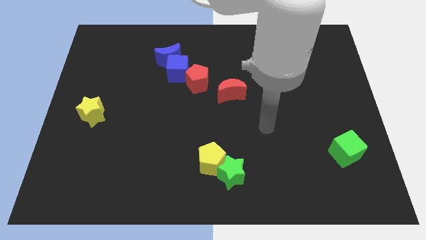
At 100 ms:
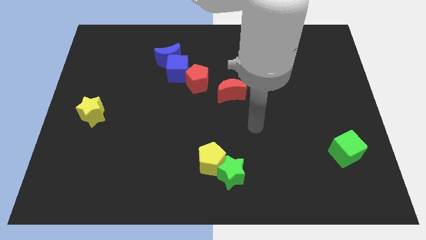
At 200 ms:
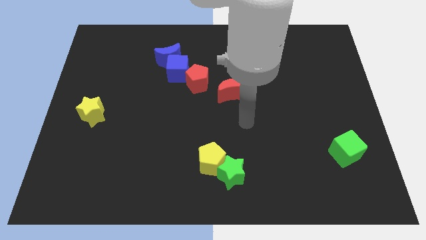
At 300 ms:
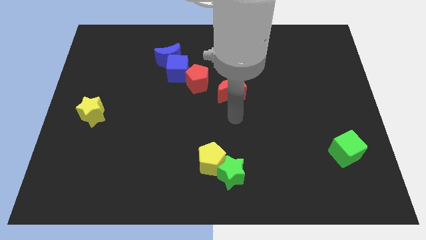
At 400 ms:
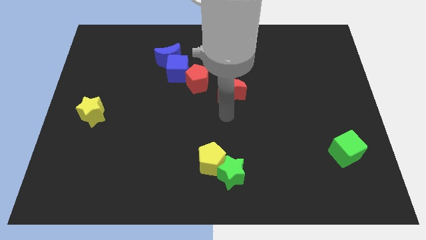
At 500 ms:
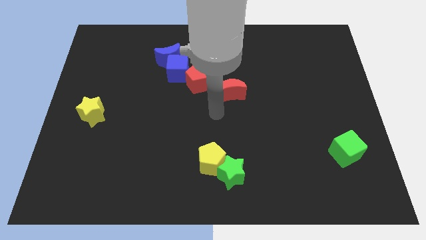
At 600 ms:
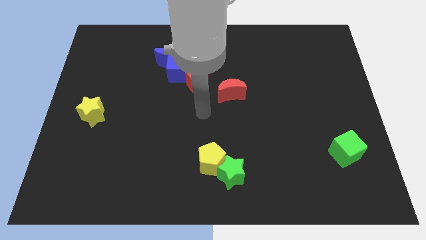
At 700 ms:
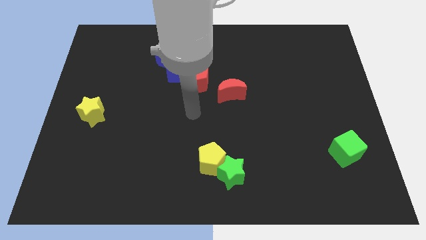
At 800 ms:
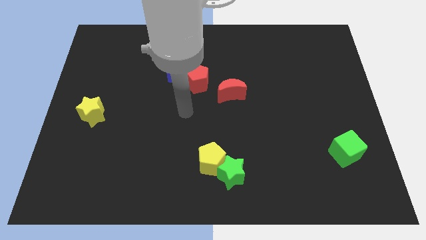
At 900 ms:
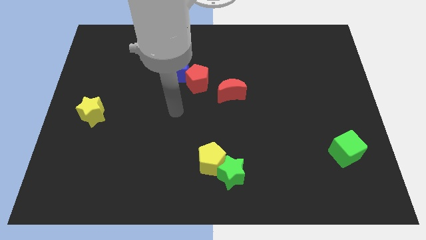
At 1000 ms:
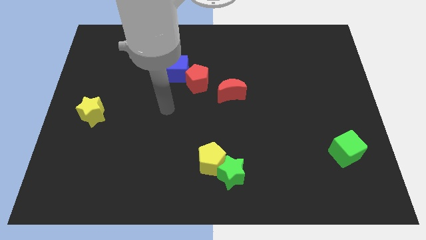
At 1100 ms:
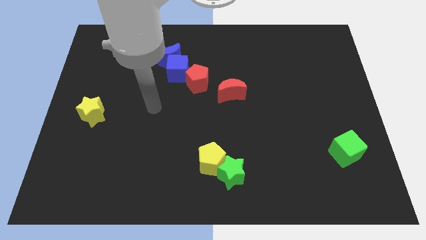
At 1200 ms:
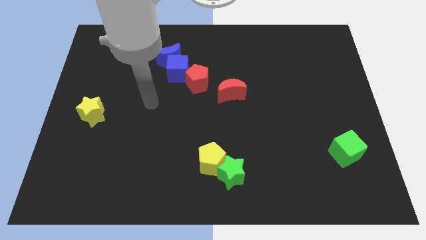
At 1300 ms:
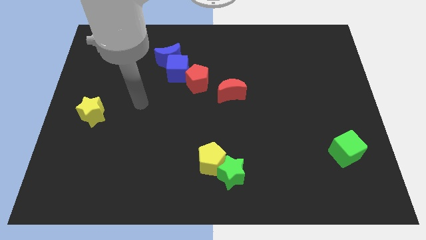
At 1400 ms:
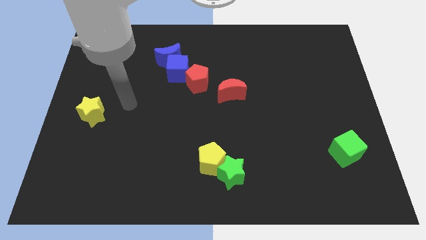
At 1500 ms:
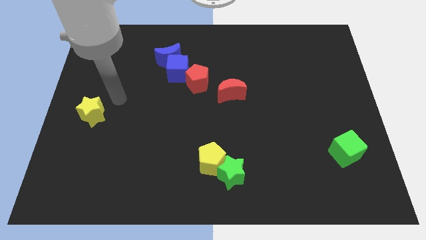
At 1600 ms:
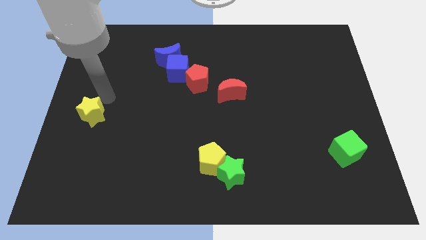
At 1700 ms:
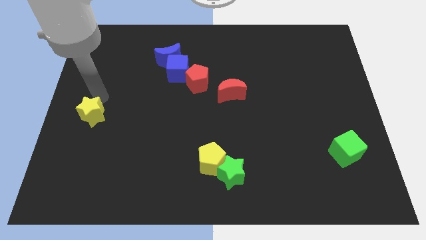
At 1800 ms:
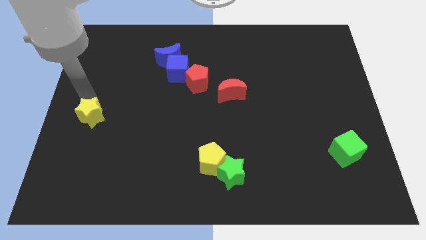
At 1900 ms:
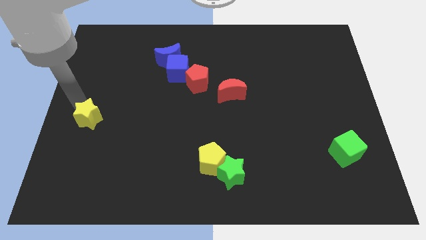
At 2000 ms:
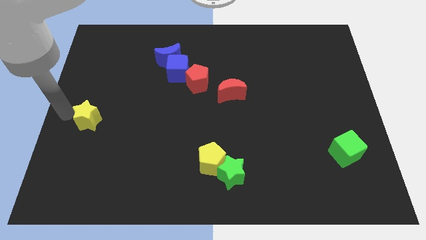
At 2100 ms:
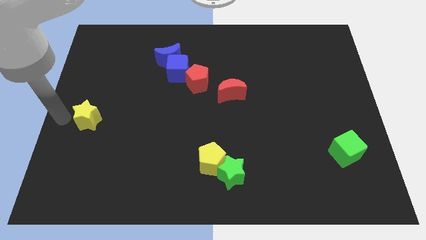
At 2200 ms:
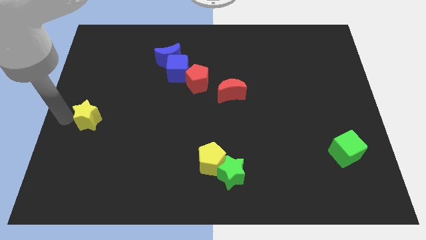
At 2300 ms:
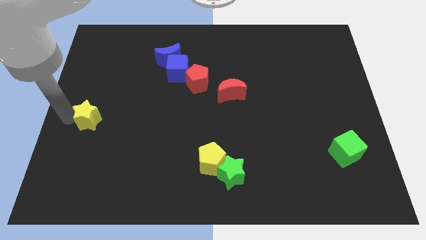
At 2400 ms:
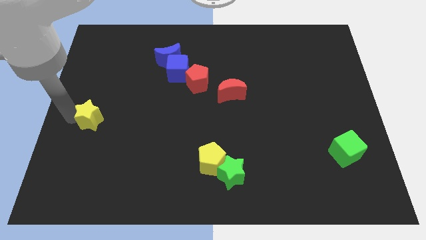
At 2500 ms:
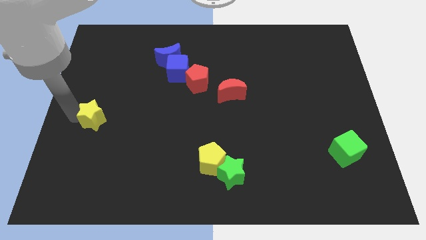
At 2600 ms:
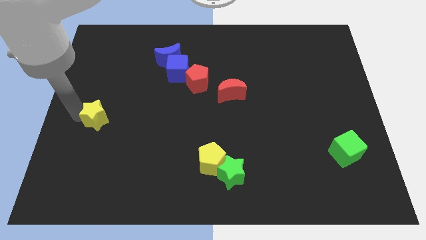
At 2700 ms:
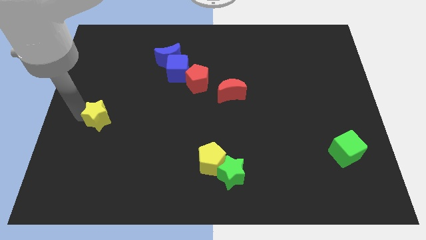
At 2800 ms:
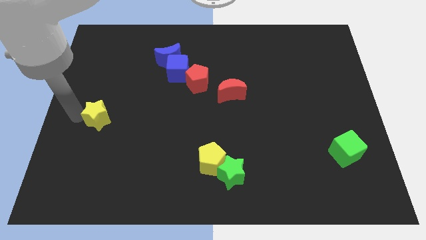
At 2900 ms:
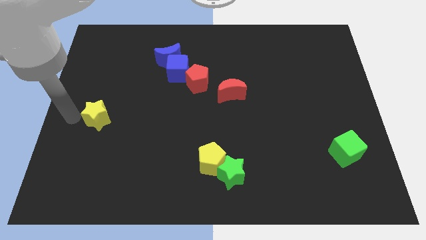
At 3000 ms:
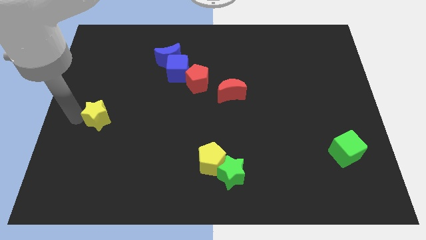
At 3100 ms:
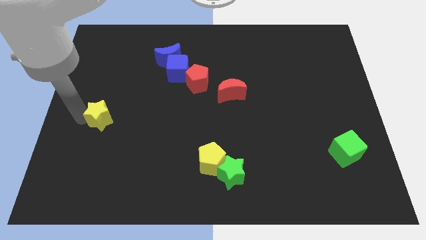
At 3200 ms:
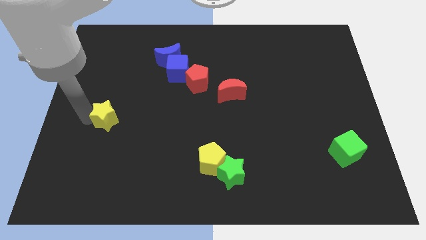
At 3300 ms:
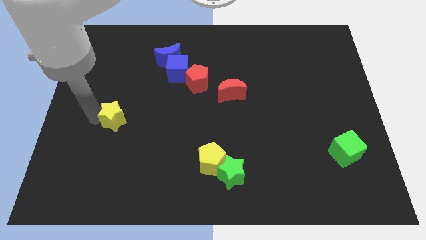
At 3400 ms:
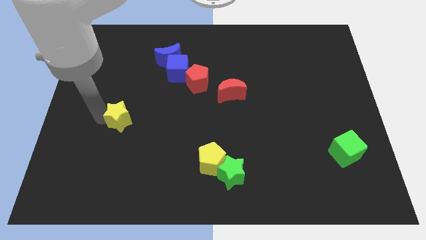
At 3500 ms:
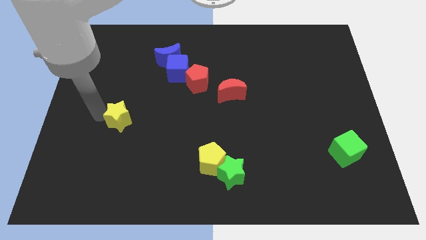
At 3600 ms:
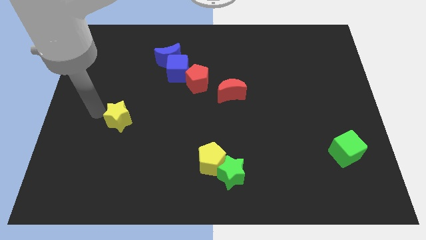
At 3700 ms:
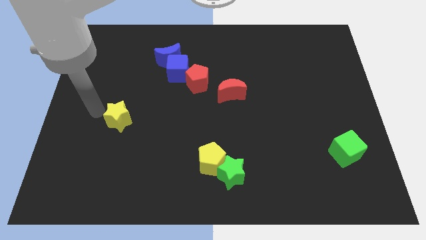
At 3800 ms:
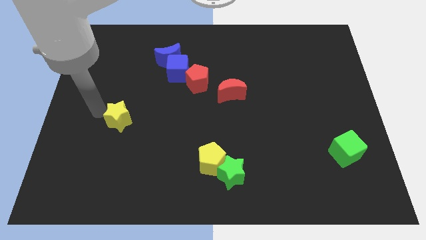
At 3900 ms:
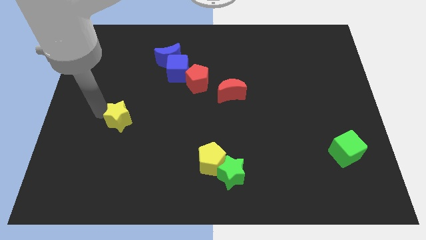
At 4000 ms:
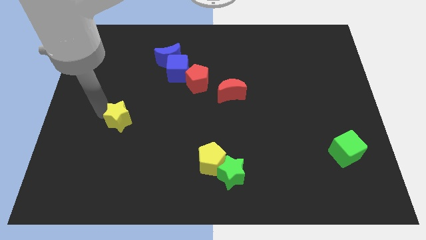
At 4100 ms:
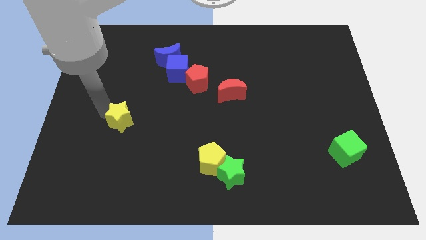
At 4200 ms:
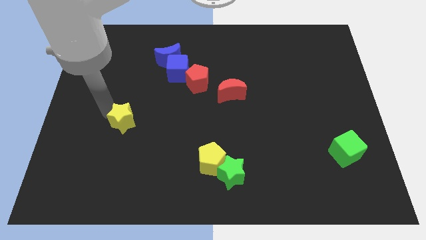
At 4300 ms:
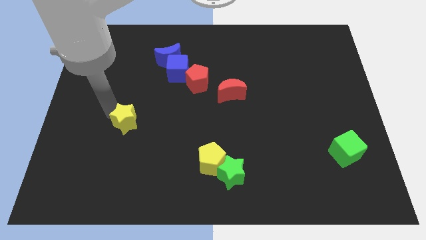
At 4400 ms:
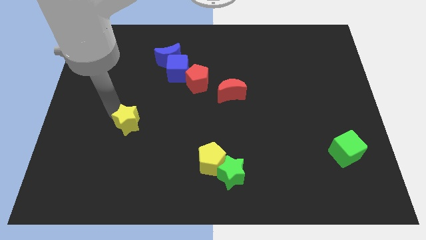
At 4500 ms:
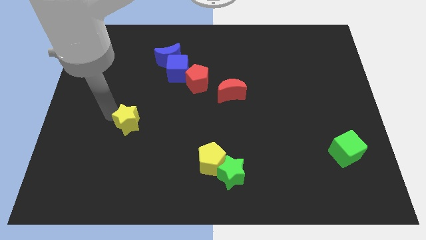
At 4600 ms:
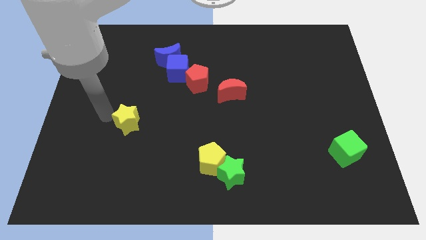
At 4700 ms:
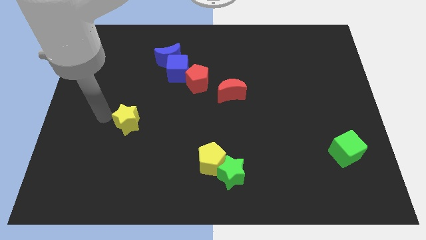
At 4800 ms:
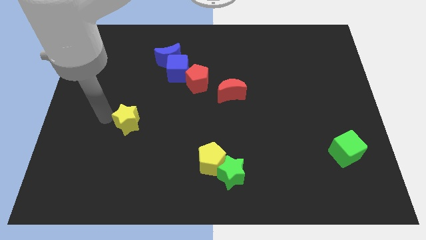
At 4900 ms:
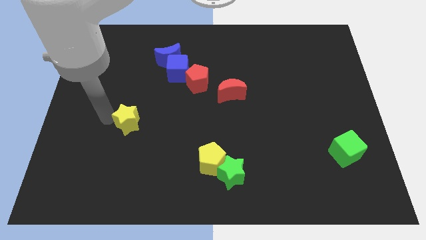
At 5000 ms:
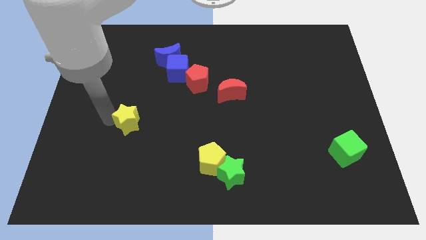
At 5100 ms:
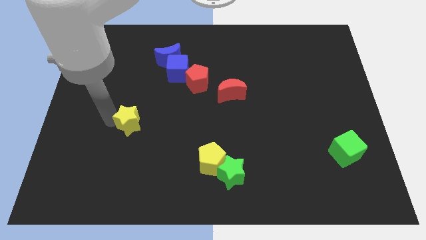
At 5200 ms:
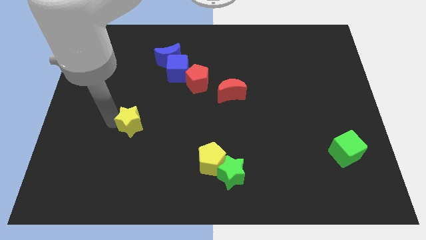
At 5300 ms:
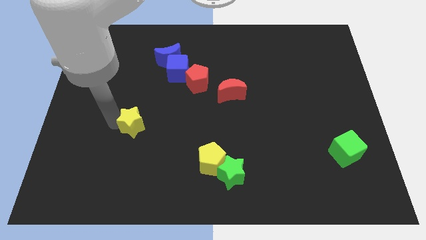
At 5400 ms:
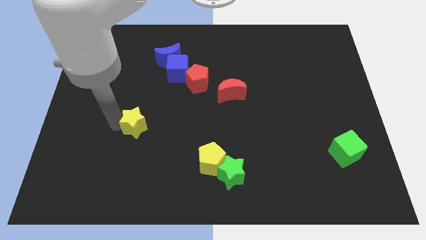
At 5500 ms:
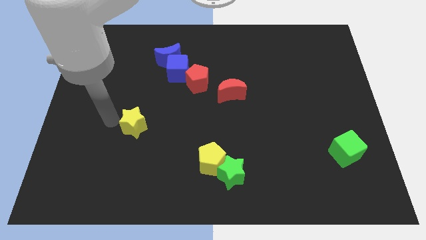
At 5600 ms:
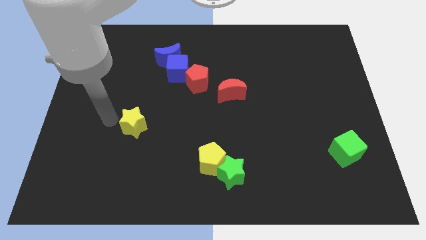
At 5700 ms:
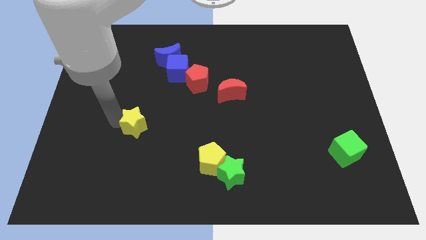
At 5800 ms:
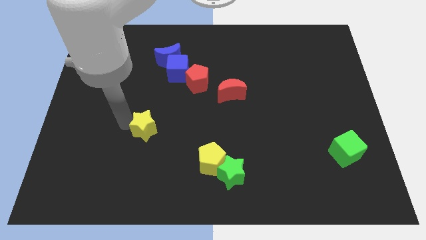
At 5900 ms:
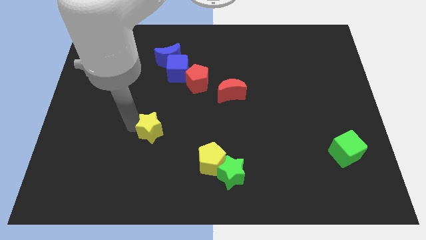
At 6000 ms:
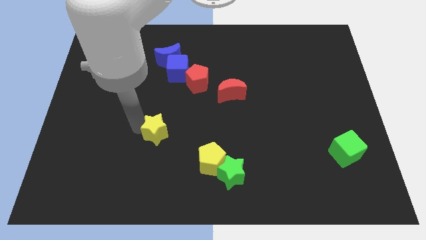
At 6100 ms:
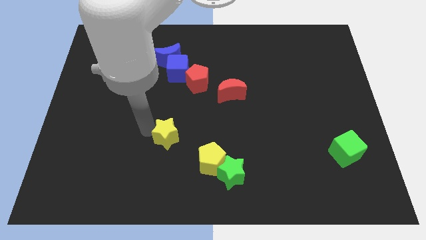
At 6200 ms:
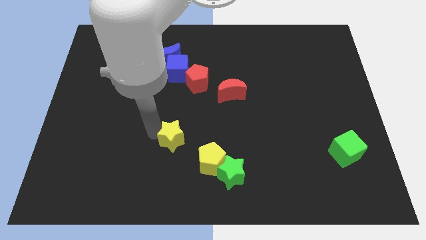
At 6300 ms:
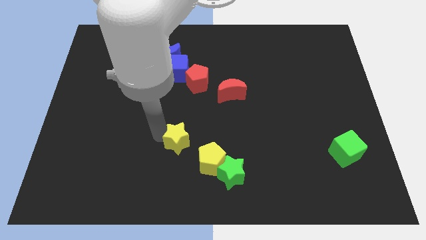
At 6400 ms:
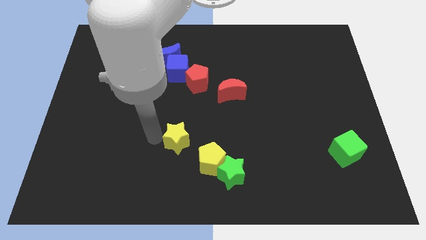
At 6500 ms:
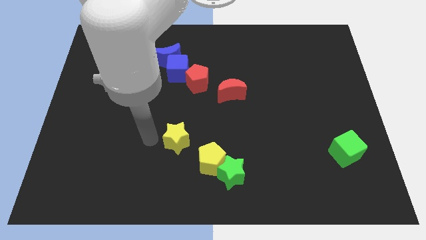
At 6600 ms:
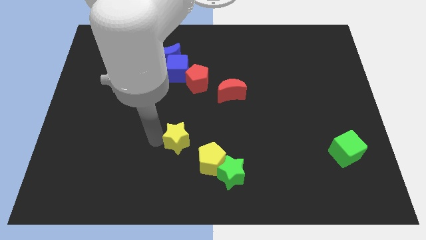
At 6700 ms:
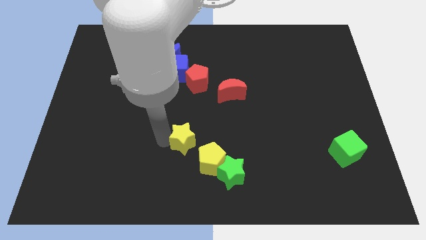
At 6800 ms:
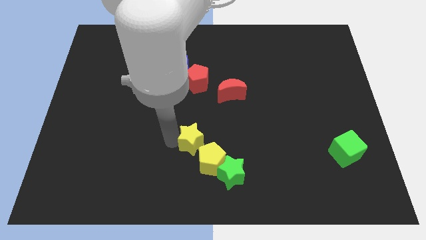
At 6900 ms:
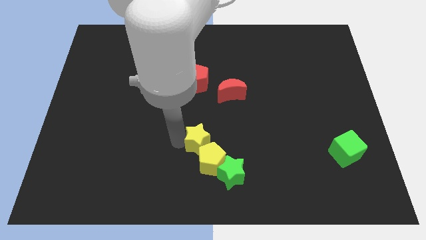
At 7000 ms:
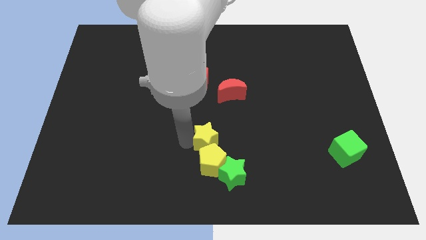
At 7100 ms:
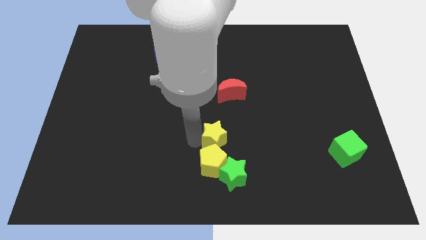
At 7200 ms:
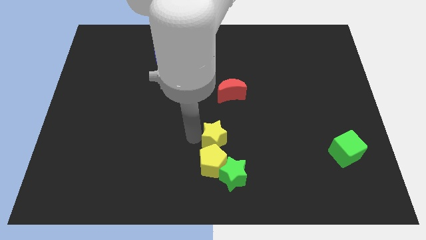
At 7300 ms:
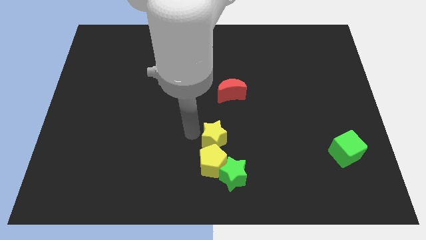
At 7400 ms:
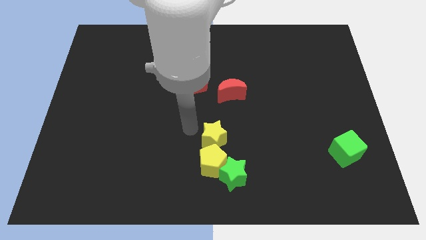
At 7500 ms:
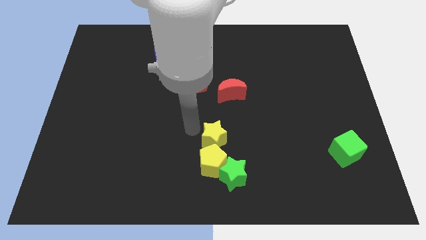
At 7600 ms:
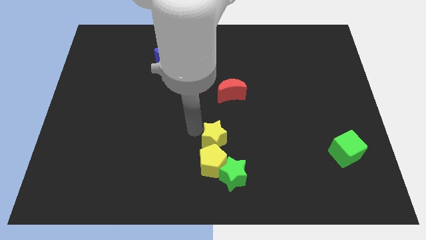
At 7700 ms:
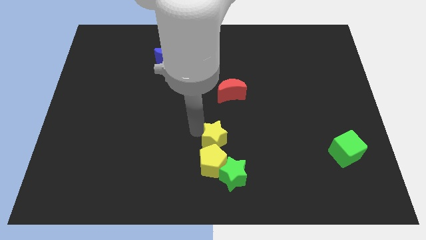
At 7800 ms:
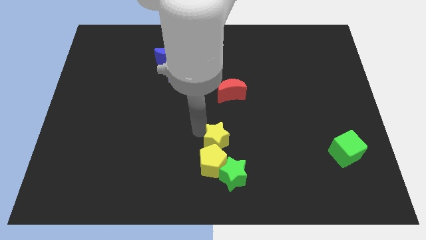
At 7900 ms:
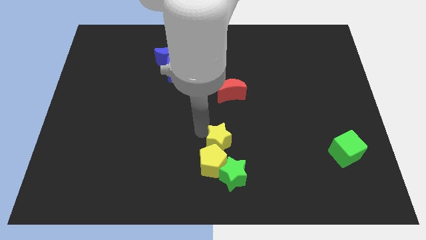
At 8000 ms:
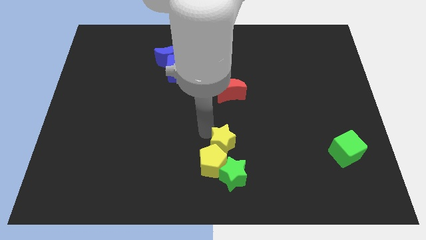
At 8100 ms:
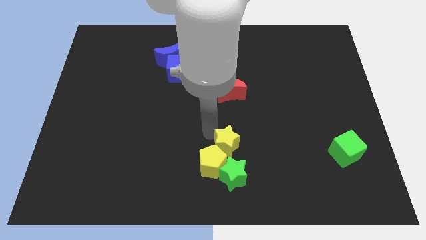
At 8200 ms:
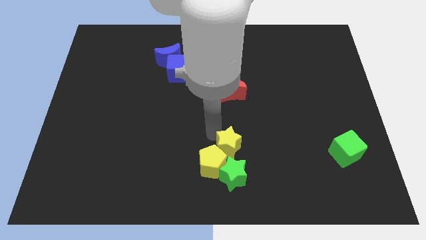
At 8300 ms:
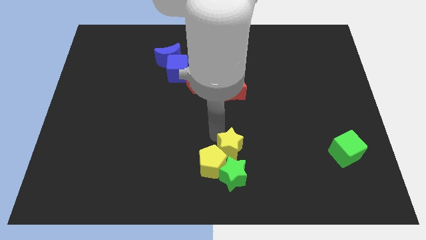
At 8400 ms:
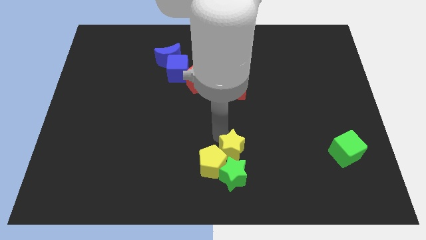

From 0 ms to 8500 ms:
push the yellow star diagonally up and to the right of the green star
